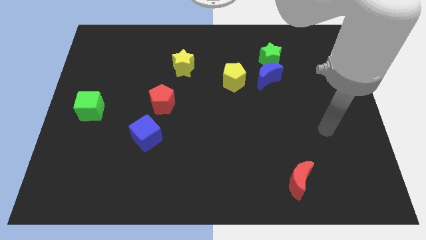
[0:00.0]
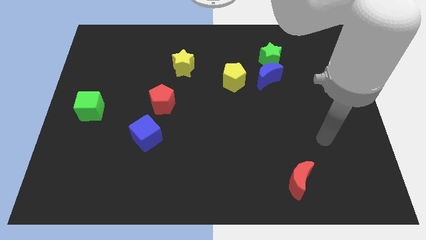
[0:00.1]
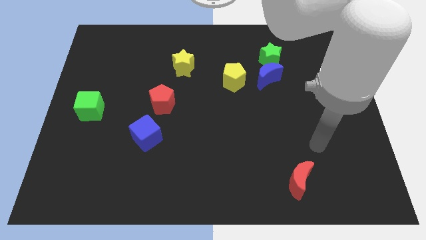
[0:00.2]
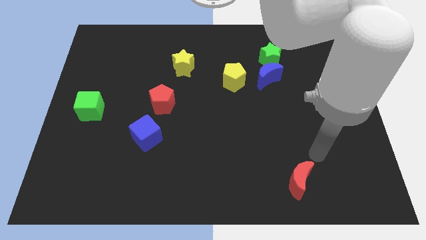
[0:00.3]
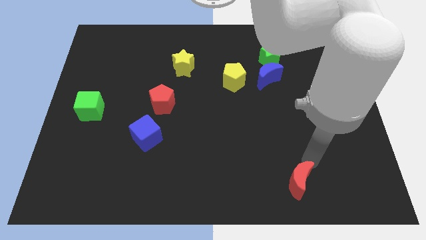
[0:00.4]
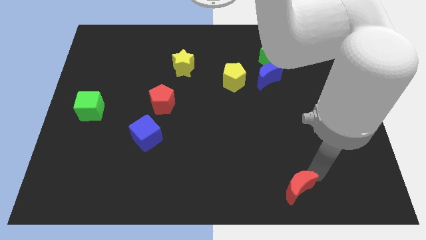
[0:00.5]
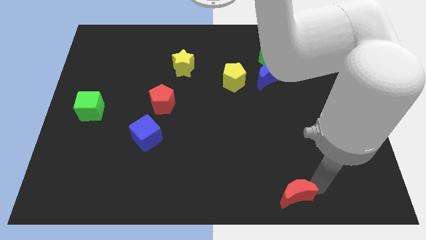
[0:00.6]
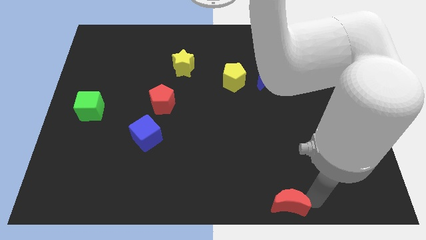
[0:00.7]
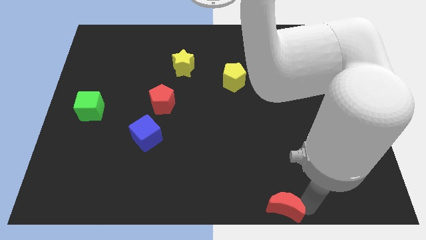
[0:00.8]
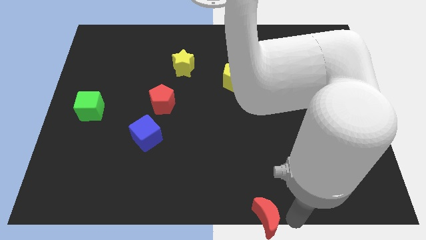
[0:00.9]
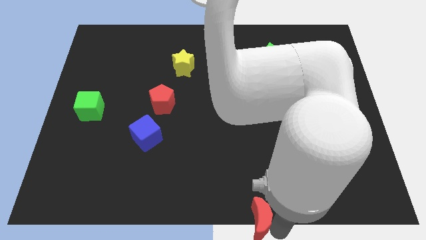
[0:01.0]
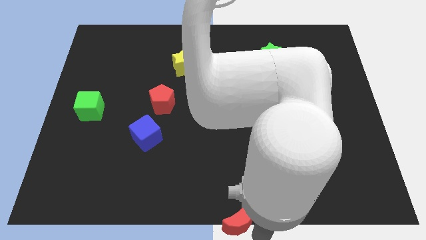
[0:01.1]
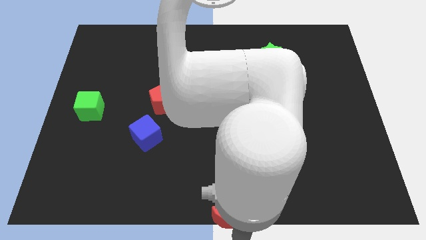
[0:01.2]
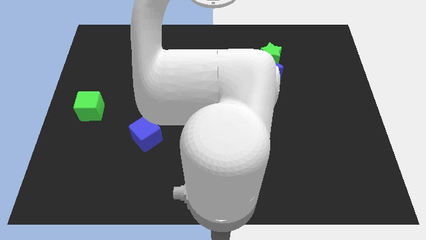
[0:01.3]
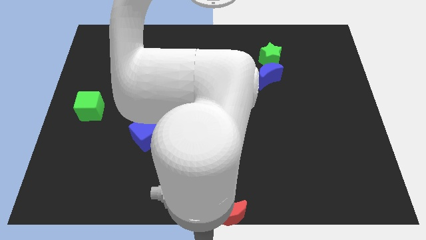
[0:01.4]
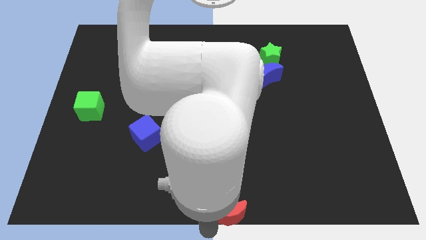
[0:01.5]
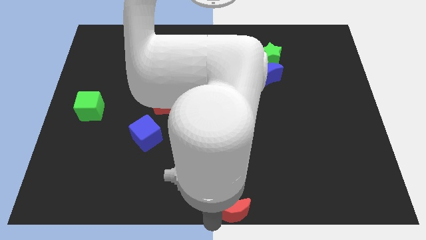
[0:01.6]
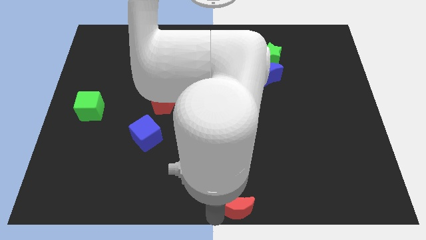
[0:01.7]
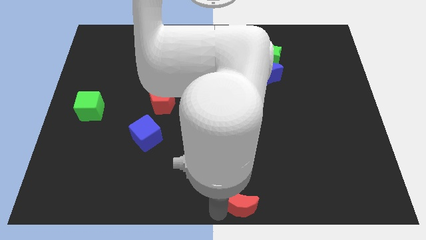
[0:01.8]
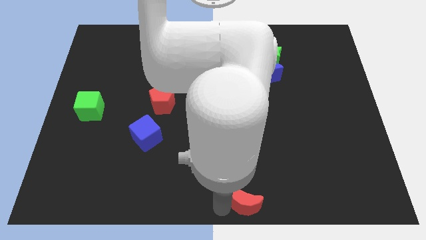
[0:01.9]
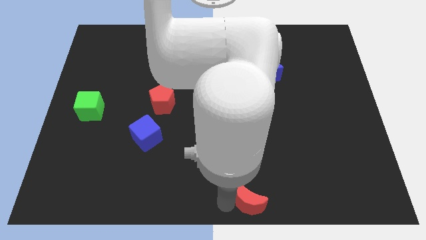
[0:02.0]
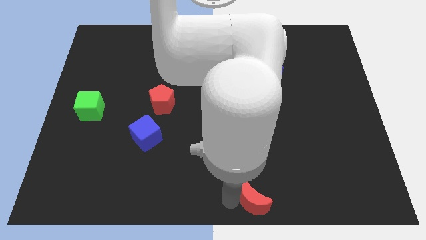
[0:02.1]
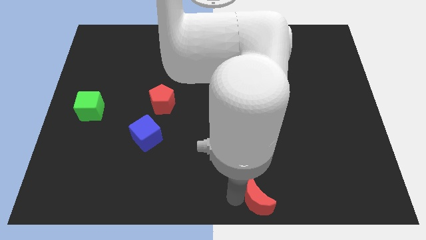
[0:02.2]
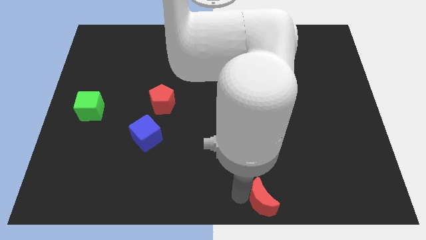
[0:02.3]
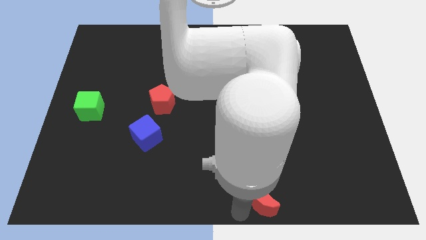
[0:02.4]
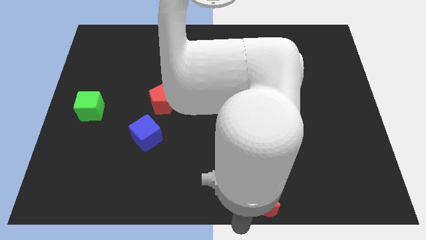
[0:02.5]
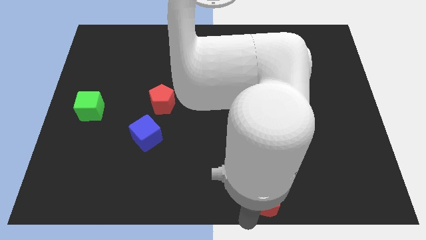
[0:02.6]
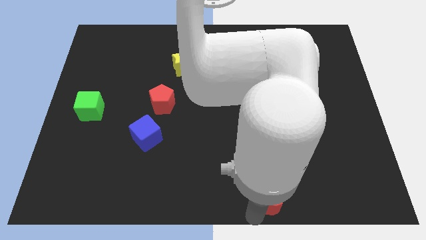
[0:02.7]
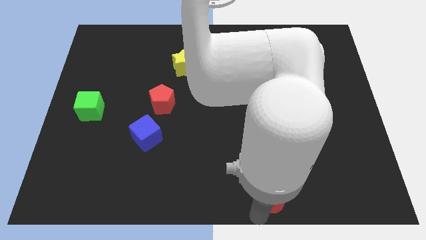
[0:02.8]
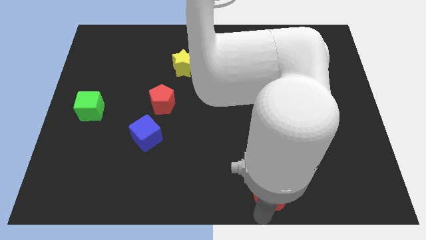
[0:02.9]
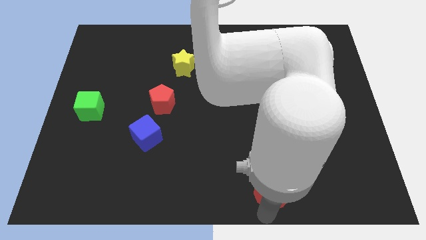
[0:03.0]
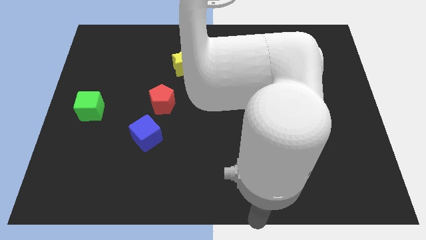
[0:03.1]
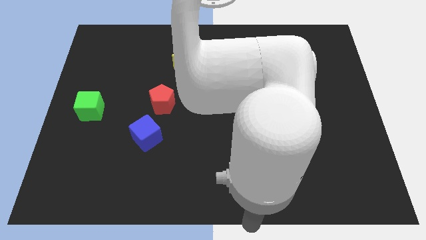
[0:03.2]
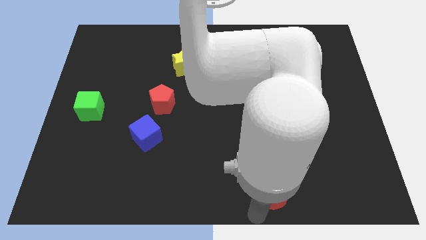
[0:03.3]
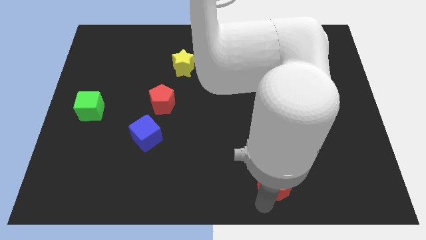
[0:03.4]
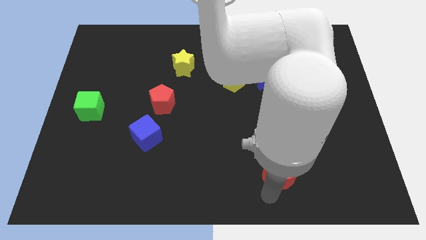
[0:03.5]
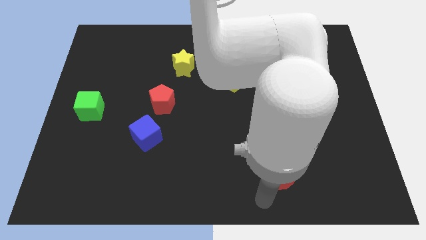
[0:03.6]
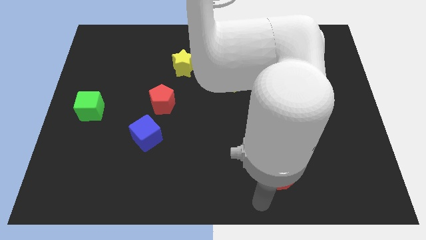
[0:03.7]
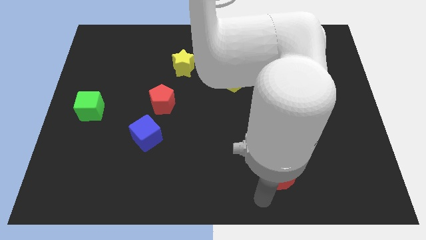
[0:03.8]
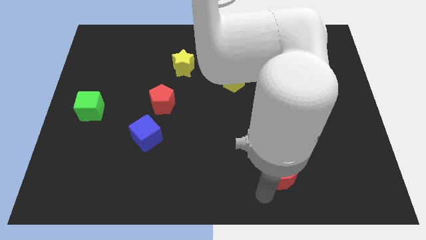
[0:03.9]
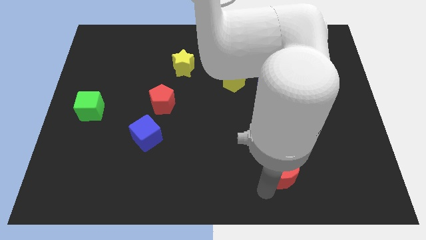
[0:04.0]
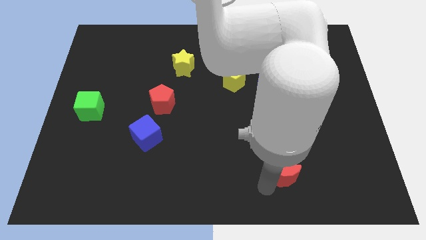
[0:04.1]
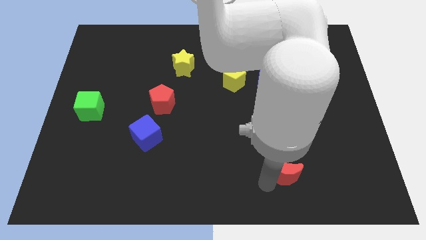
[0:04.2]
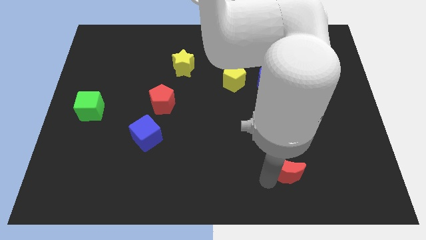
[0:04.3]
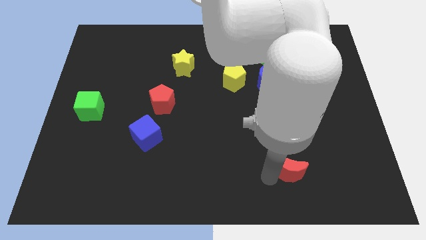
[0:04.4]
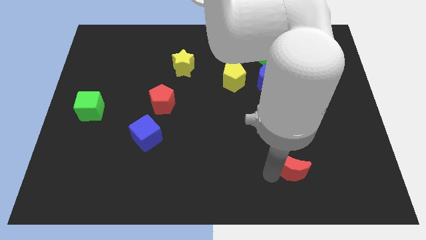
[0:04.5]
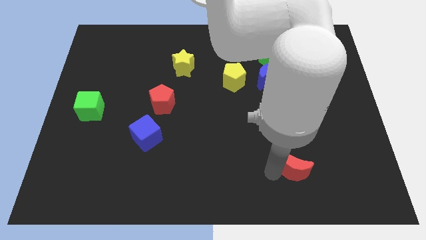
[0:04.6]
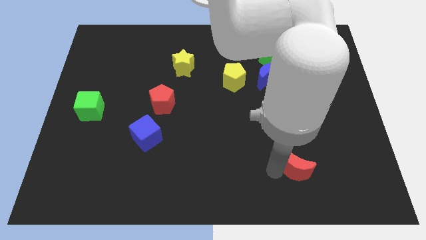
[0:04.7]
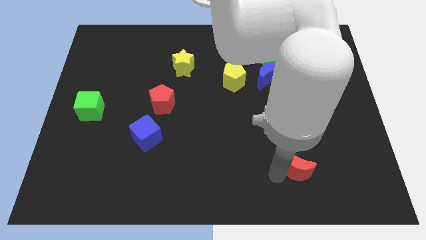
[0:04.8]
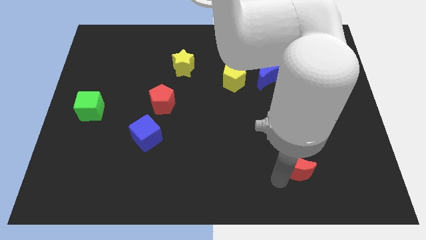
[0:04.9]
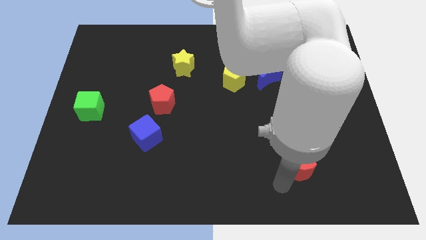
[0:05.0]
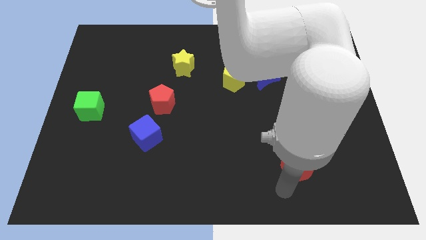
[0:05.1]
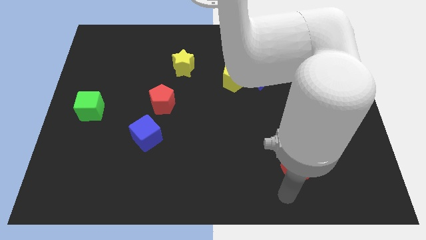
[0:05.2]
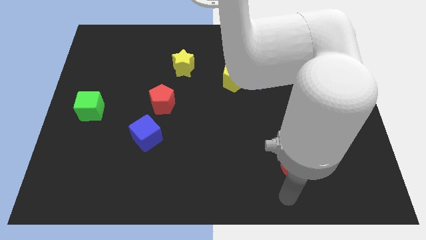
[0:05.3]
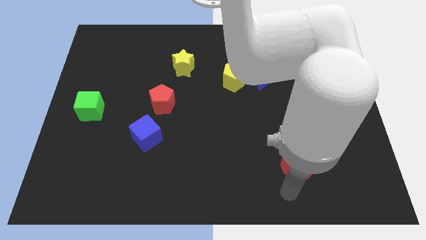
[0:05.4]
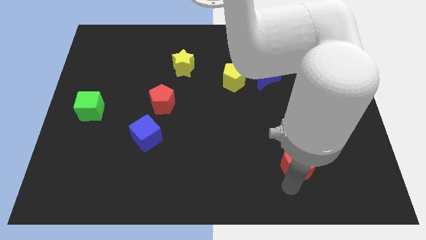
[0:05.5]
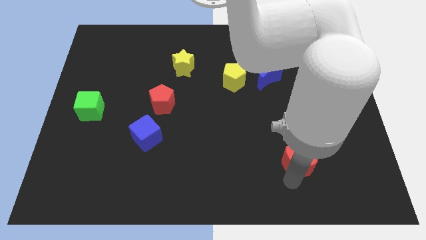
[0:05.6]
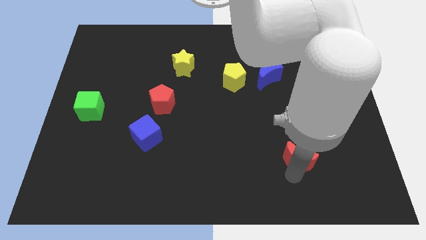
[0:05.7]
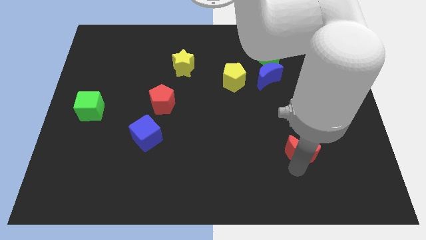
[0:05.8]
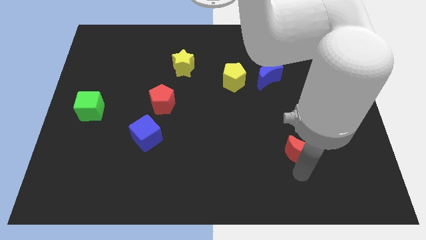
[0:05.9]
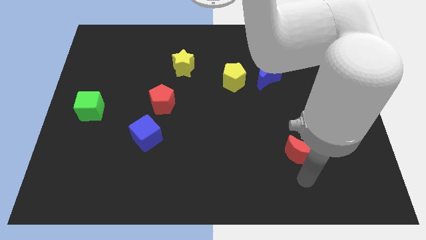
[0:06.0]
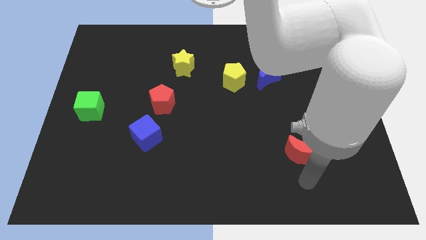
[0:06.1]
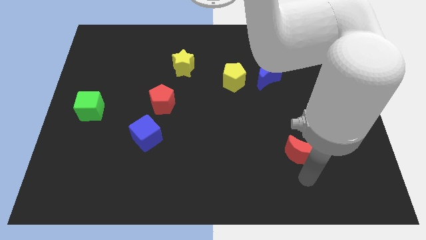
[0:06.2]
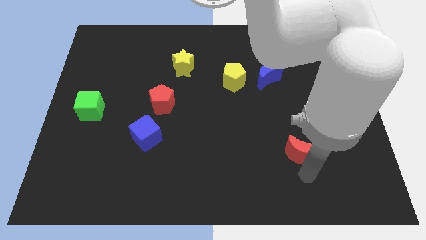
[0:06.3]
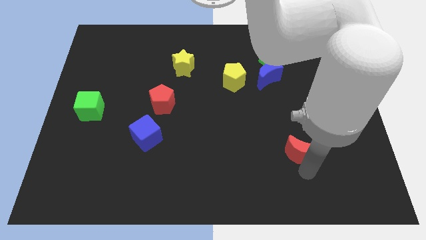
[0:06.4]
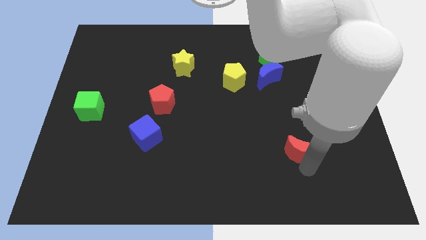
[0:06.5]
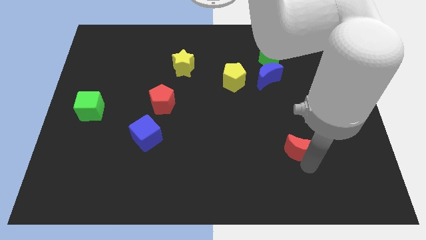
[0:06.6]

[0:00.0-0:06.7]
slide the red moon a bit up

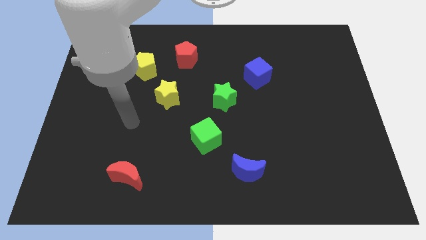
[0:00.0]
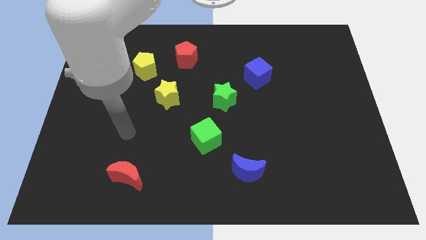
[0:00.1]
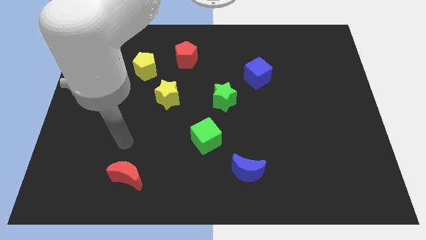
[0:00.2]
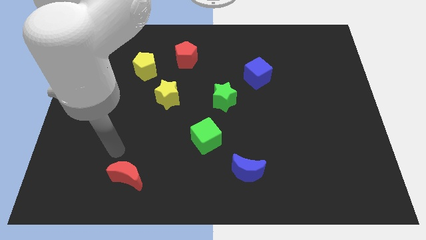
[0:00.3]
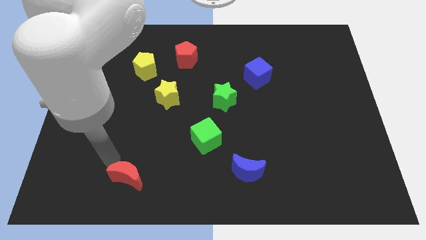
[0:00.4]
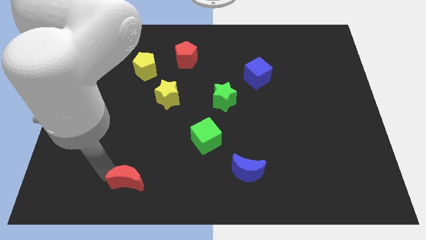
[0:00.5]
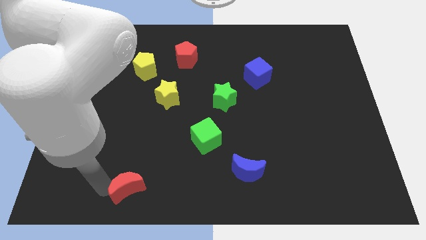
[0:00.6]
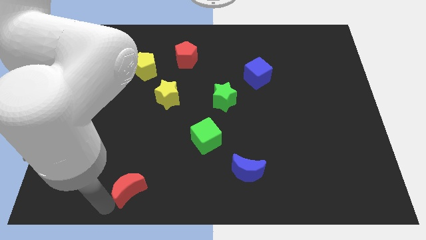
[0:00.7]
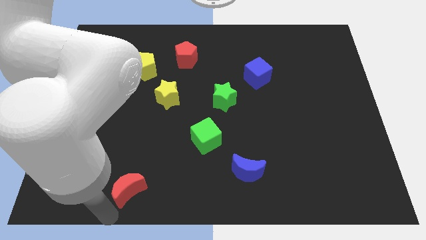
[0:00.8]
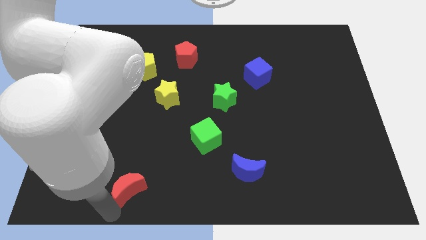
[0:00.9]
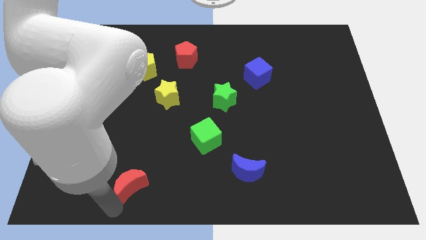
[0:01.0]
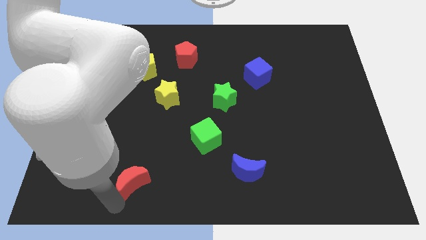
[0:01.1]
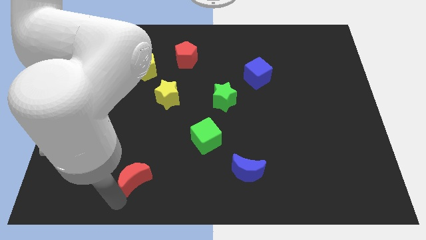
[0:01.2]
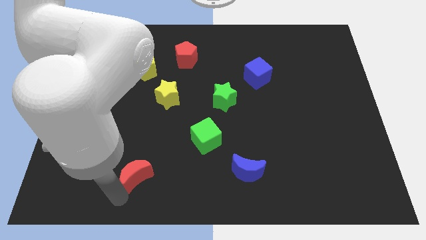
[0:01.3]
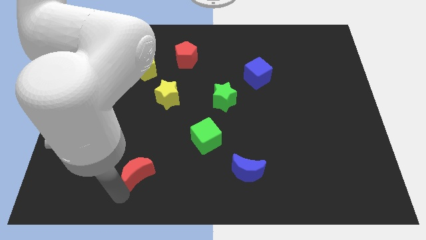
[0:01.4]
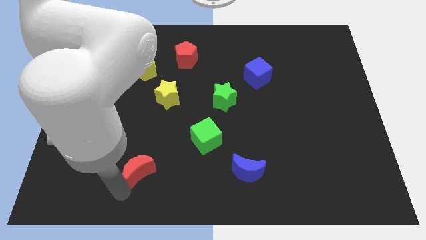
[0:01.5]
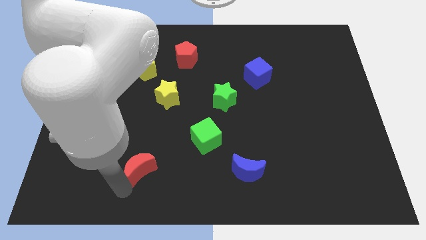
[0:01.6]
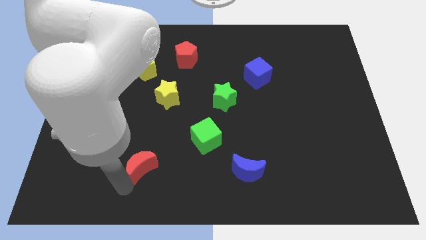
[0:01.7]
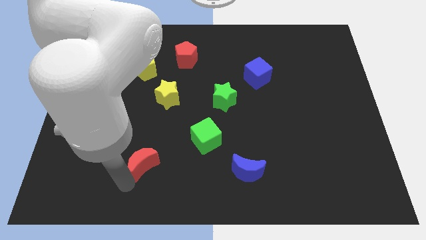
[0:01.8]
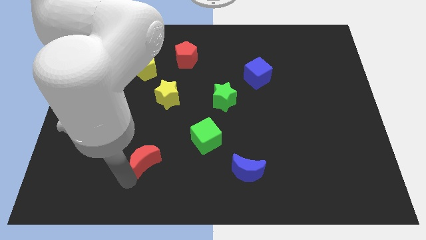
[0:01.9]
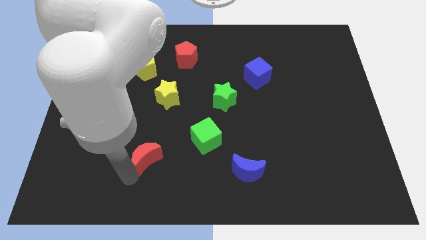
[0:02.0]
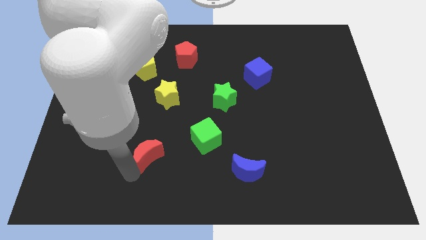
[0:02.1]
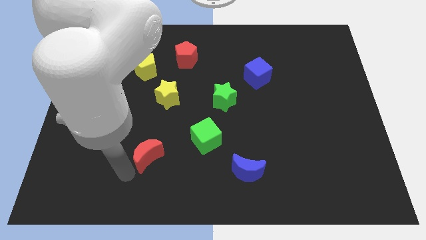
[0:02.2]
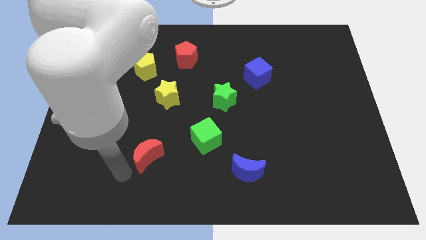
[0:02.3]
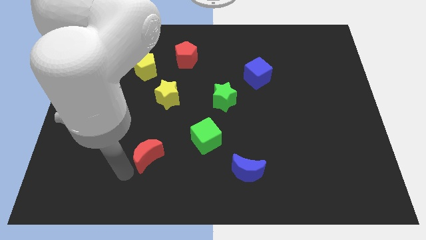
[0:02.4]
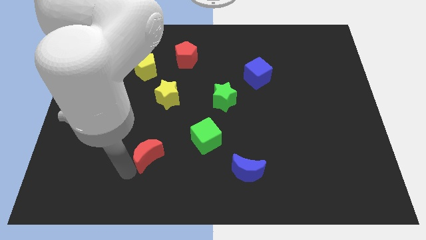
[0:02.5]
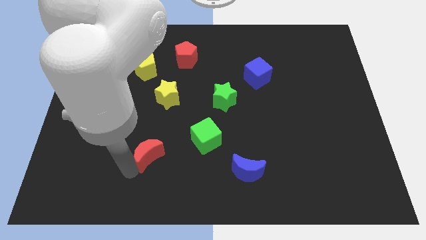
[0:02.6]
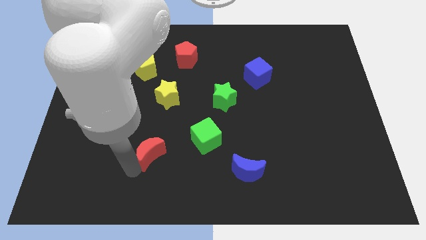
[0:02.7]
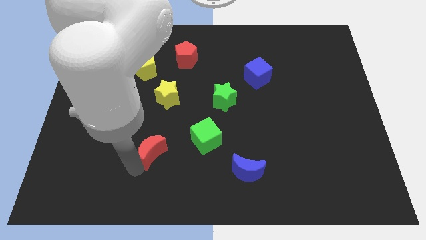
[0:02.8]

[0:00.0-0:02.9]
push the red moon diagonally upwards and right a little bit
